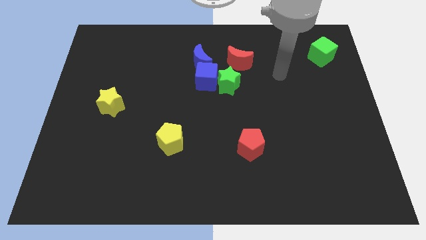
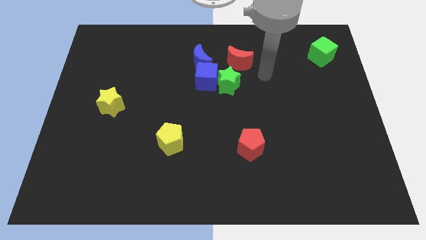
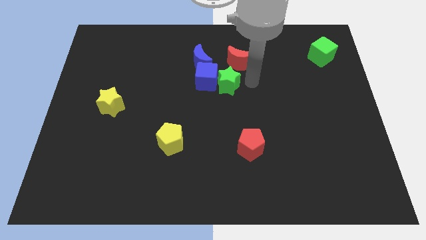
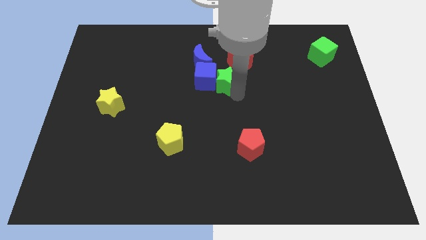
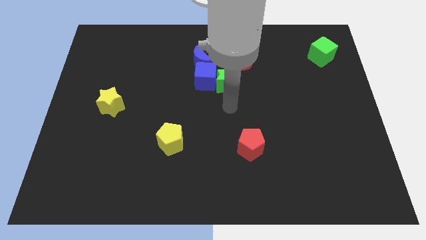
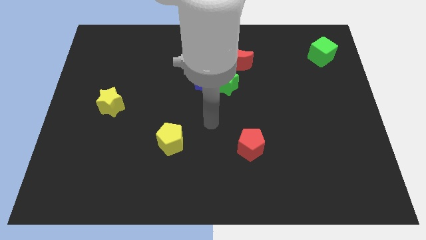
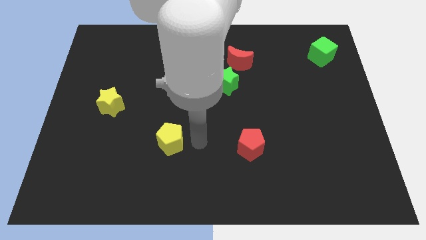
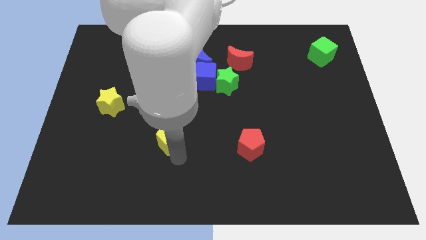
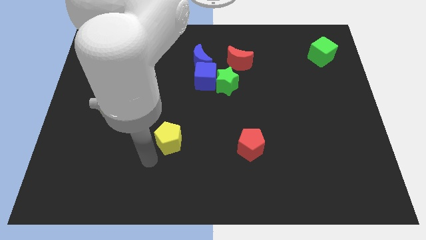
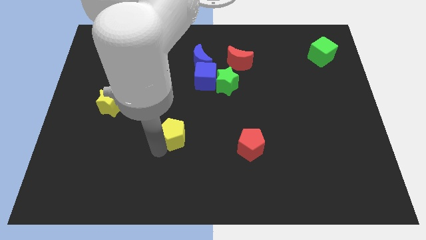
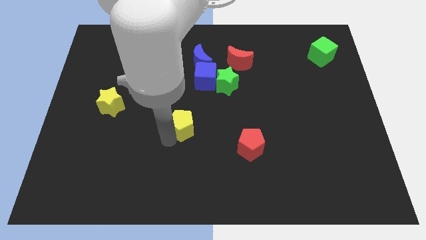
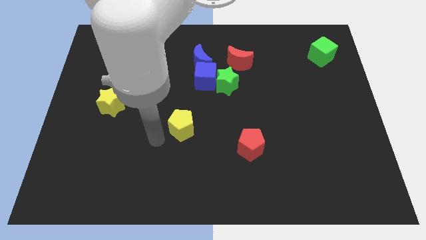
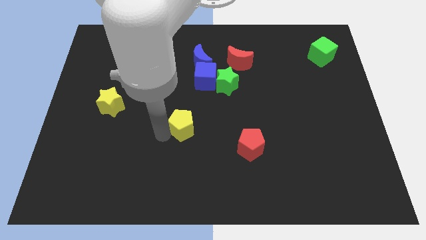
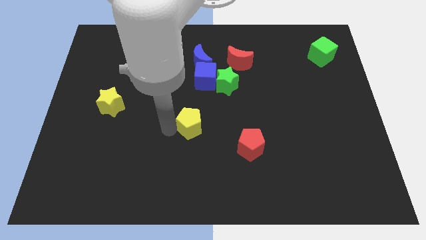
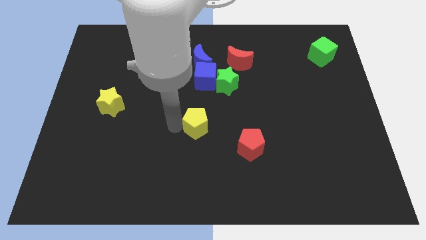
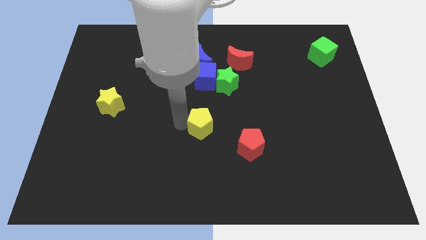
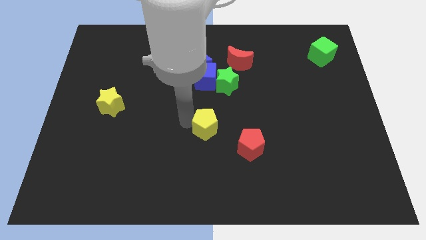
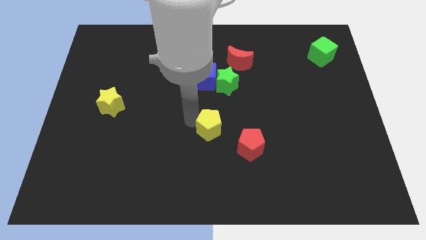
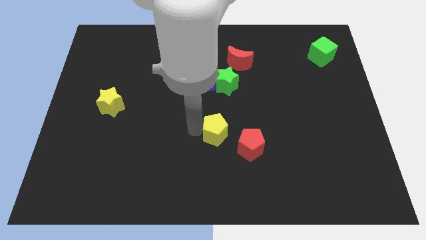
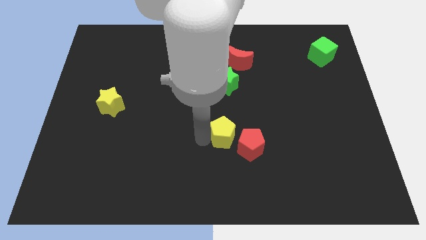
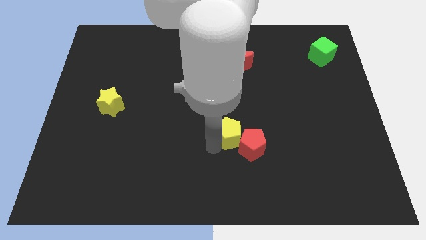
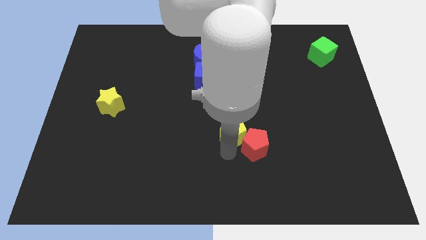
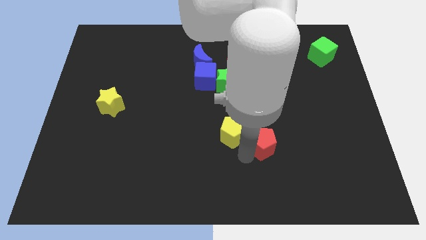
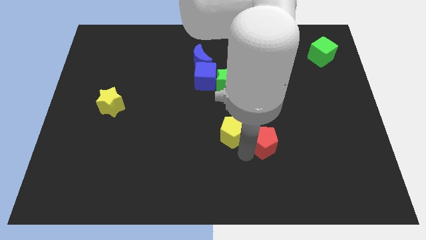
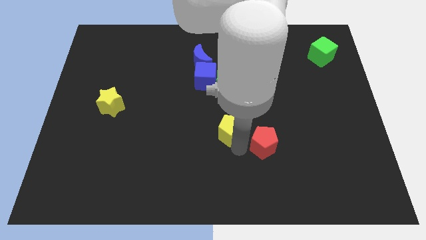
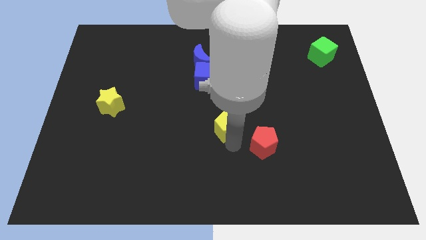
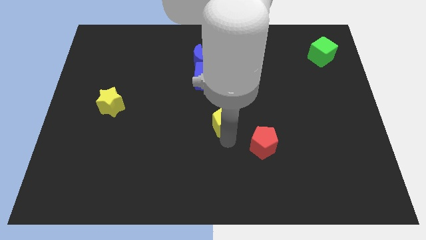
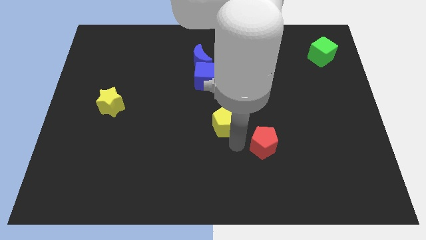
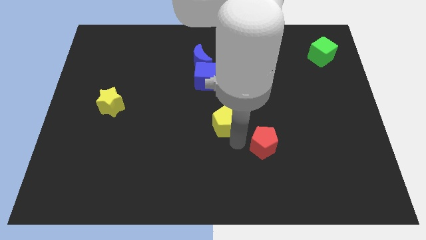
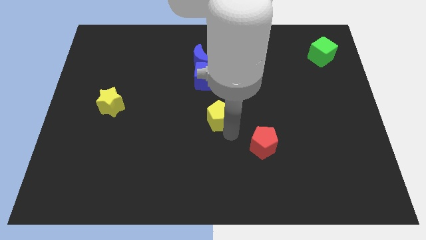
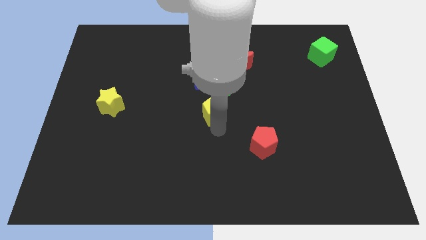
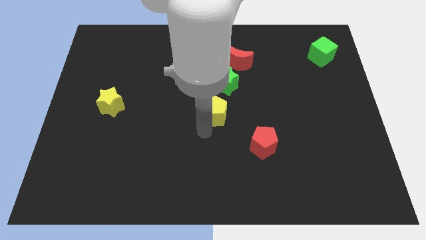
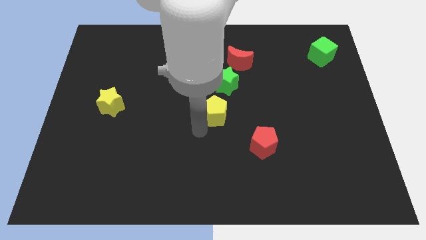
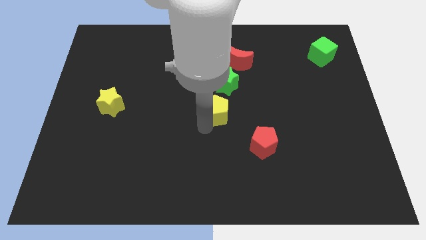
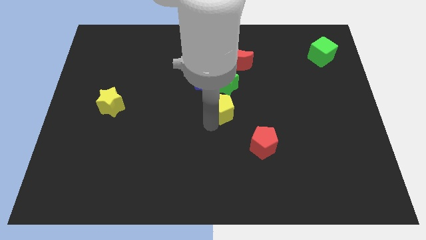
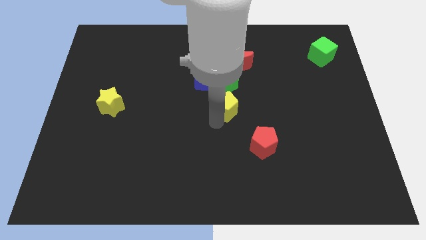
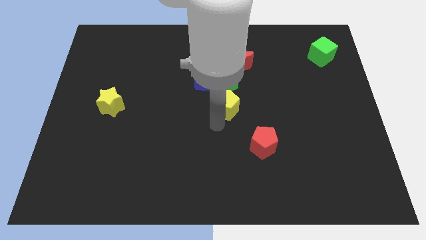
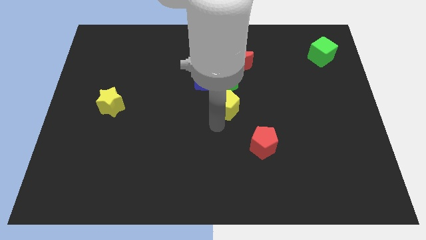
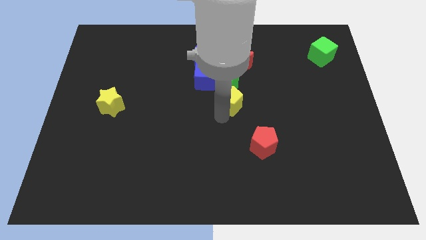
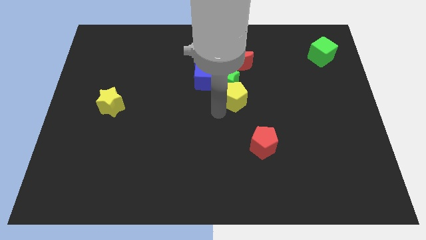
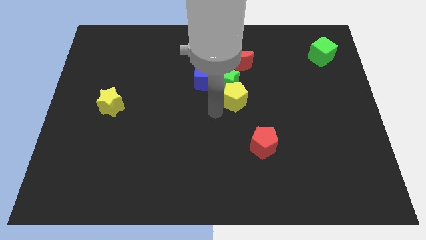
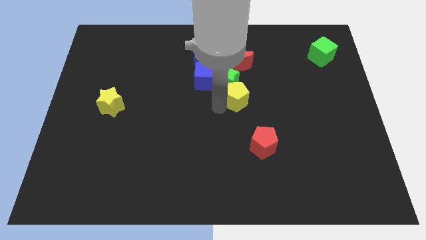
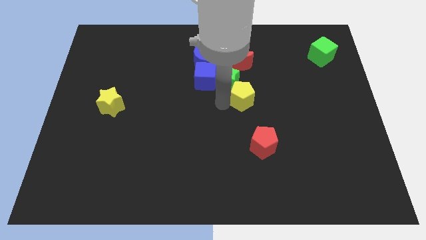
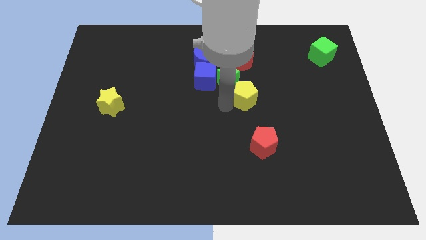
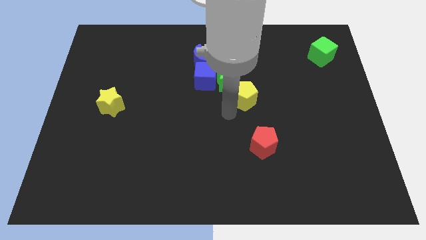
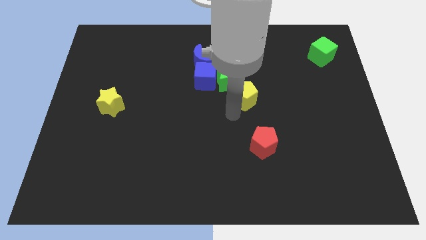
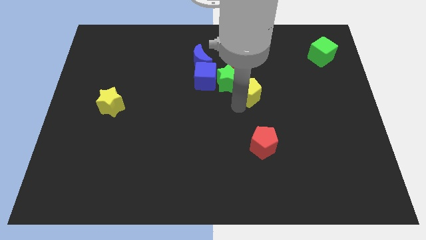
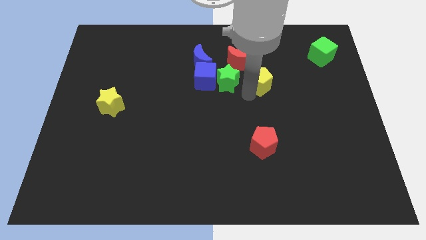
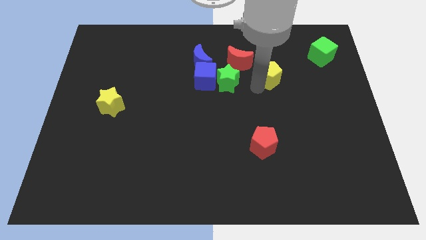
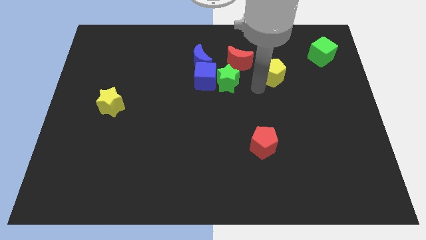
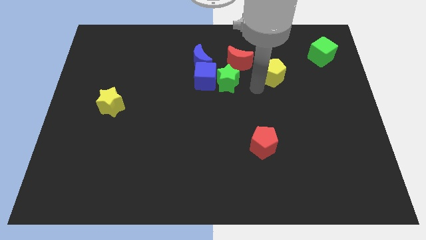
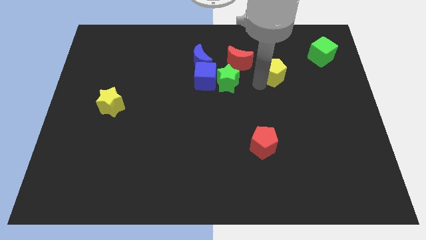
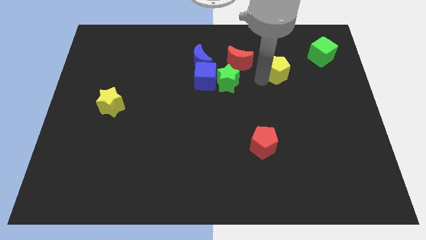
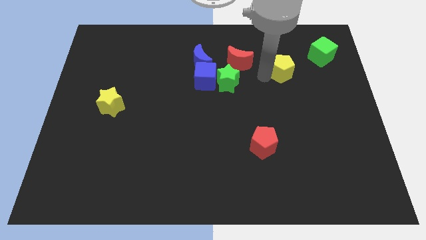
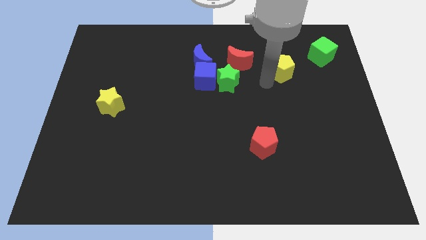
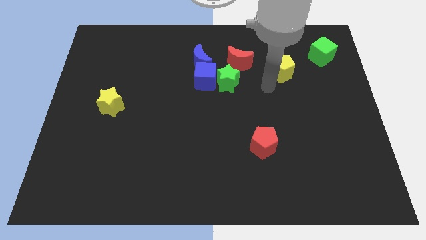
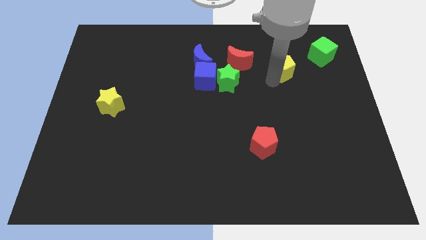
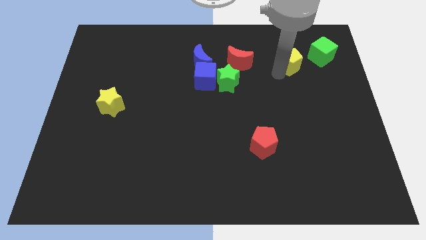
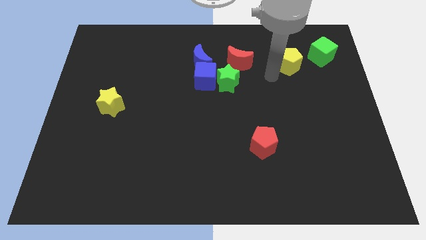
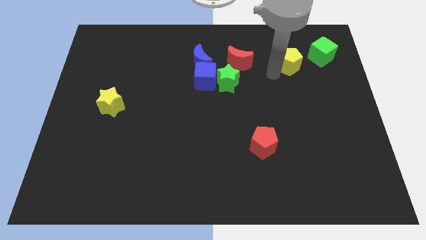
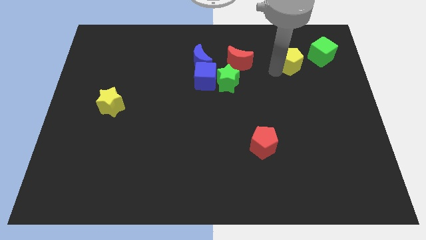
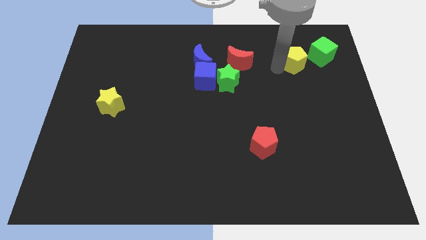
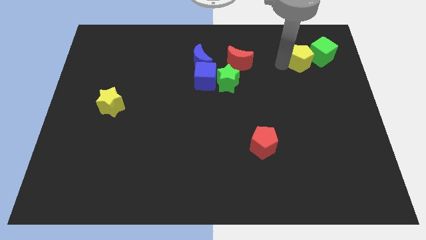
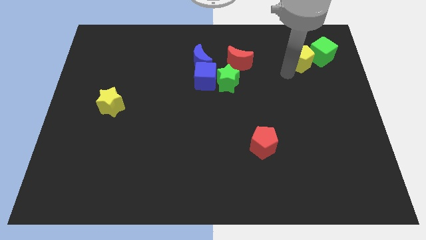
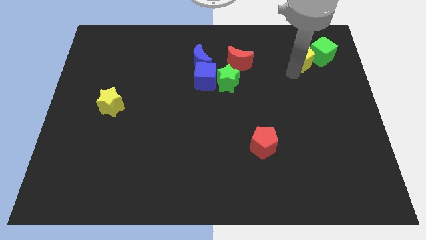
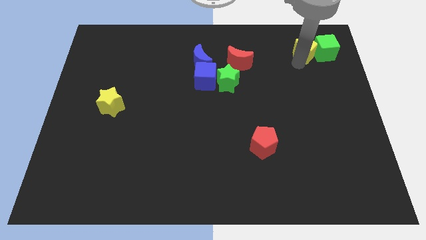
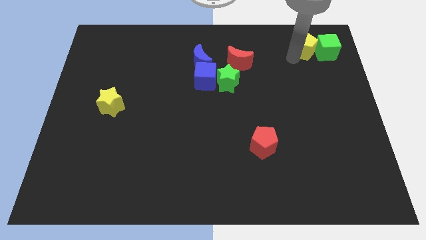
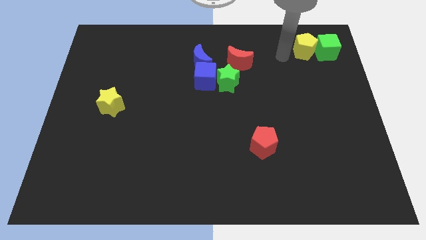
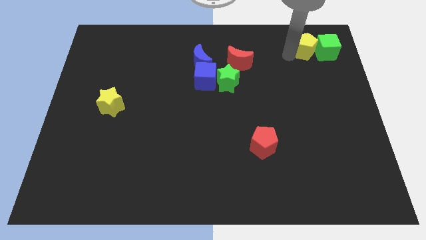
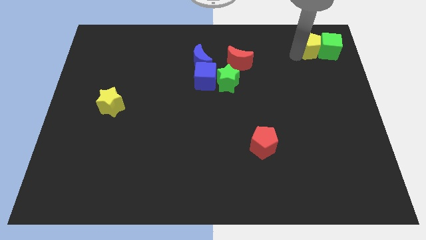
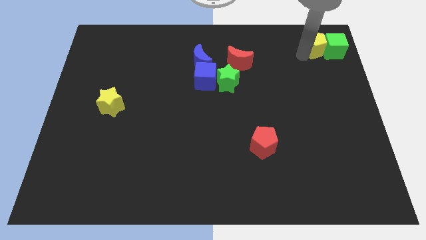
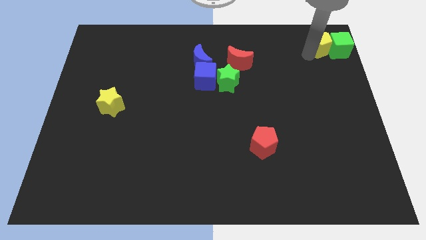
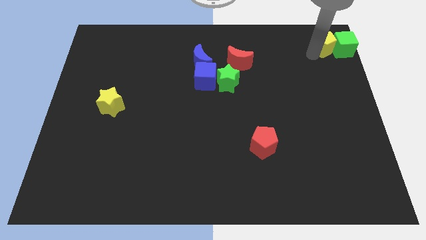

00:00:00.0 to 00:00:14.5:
slide the yellow pentagon to the top right of the board
